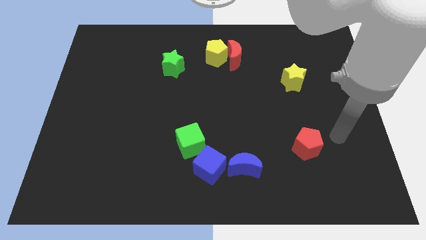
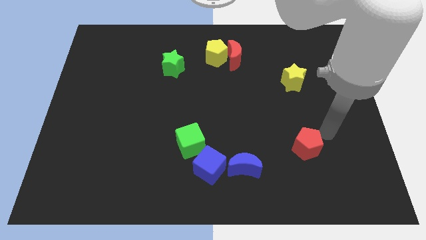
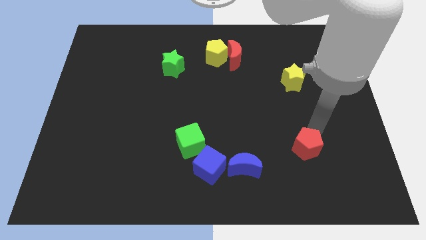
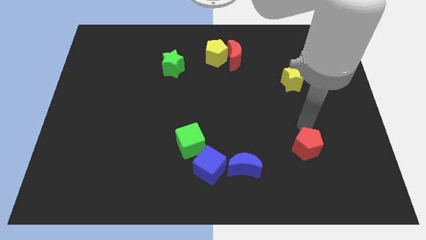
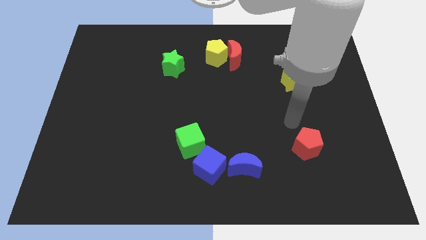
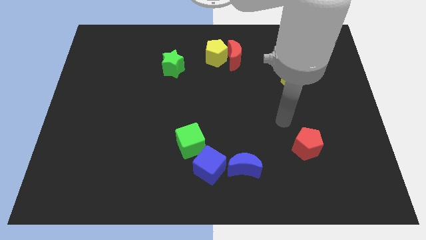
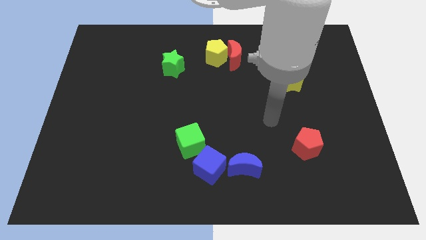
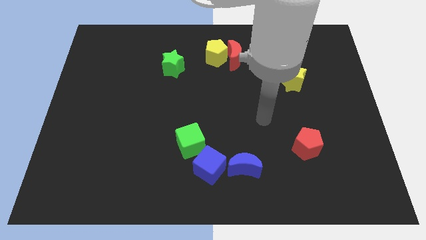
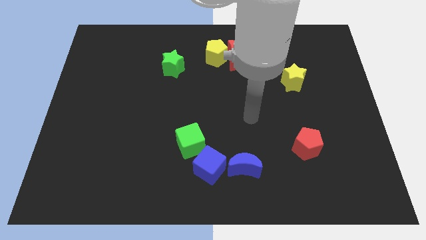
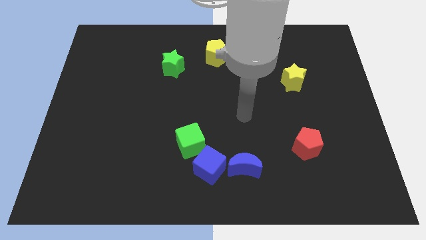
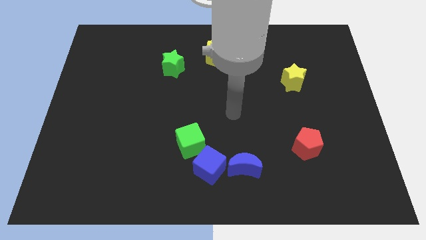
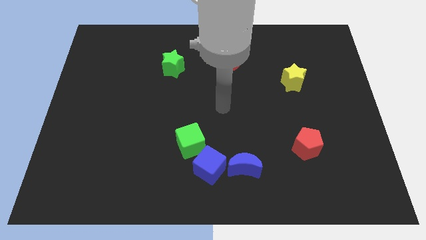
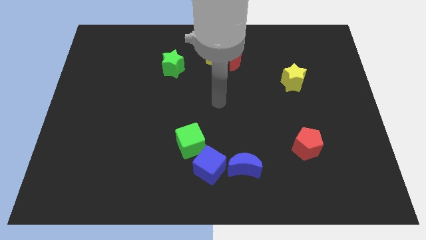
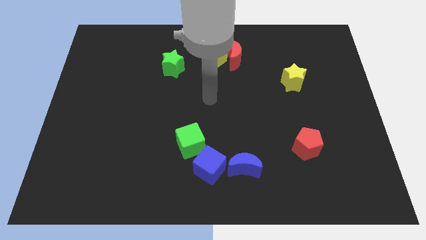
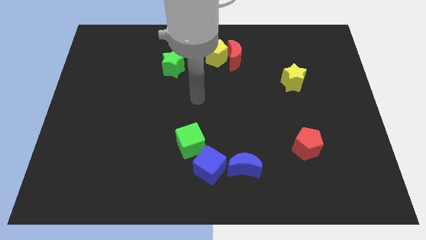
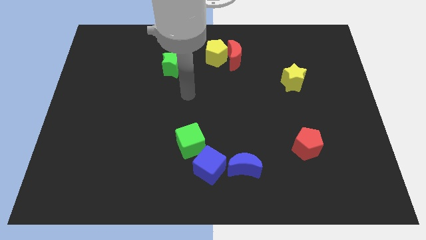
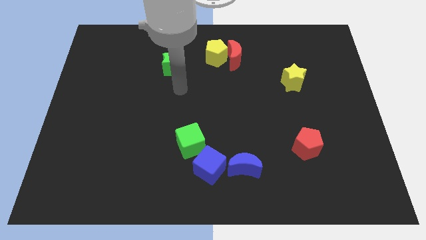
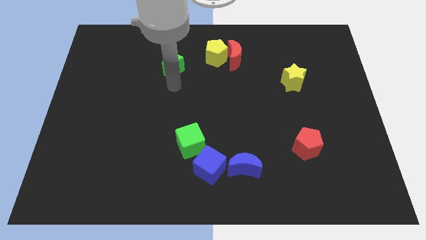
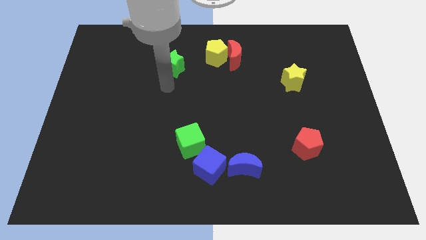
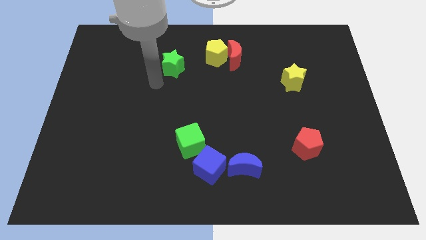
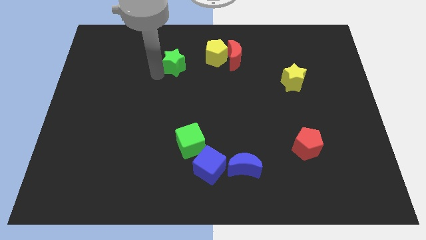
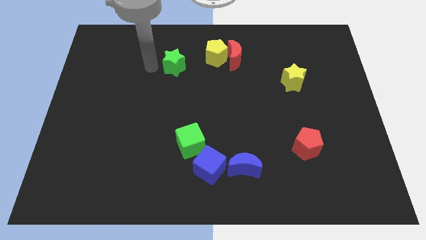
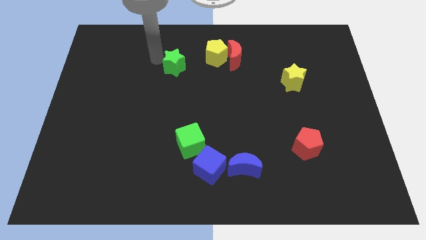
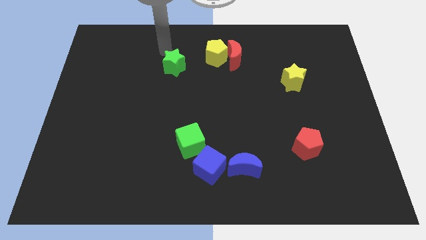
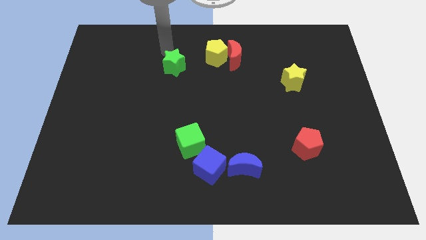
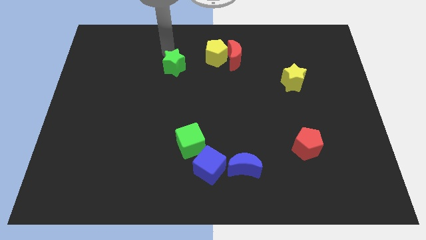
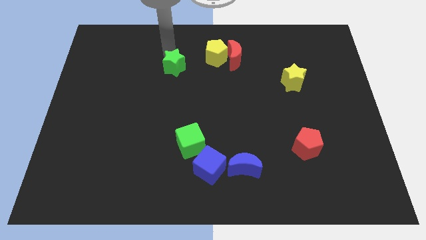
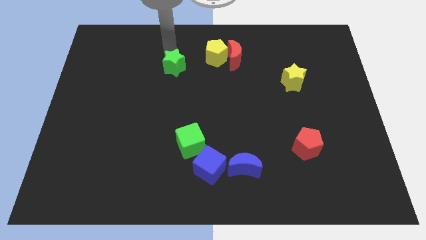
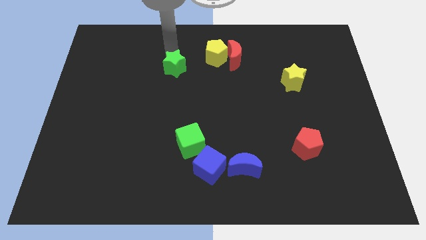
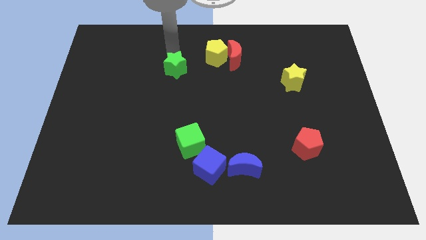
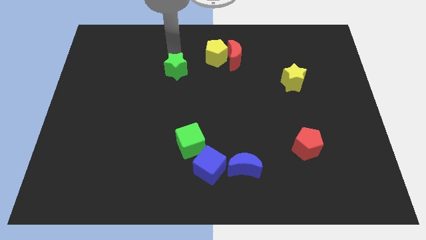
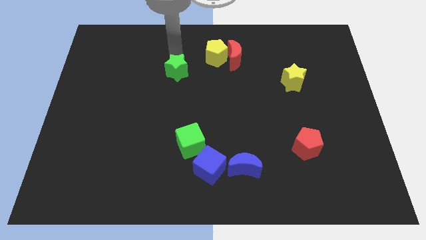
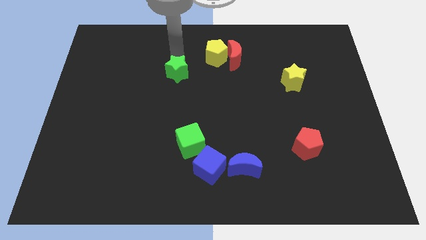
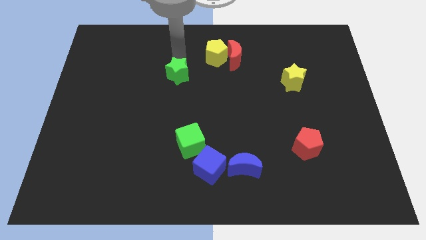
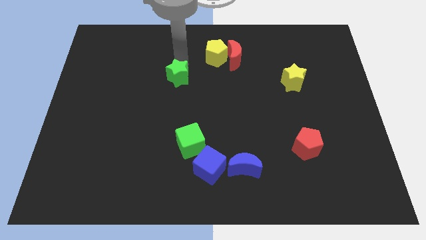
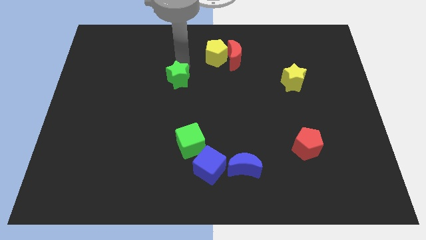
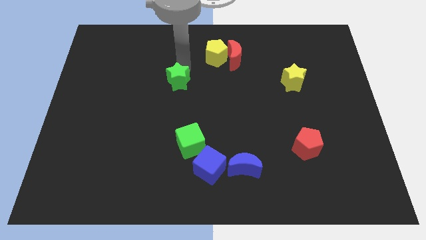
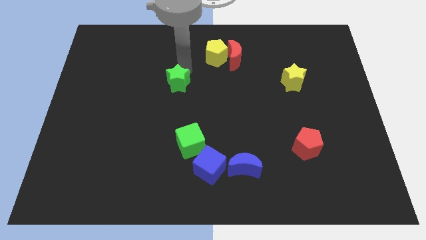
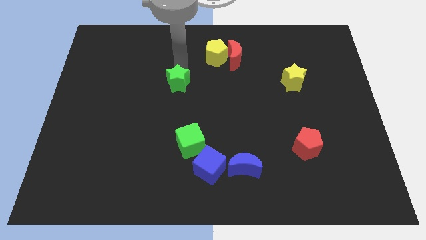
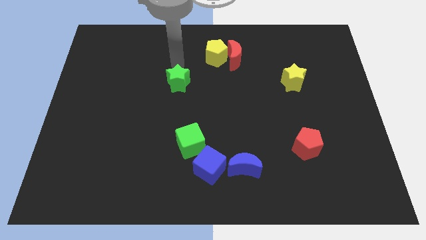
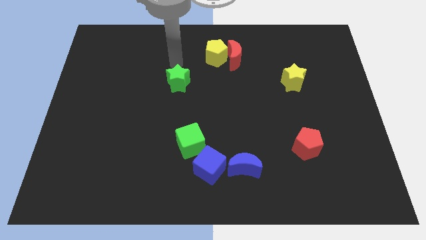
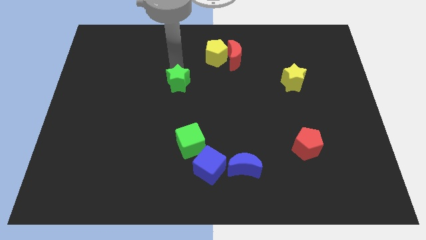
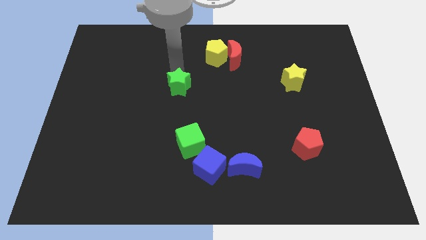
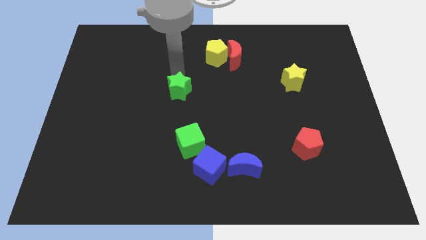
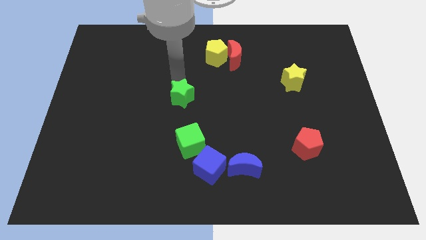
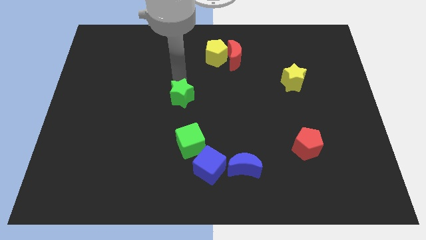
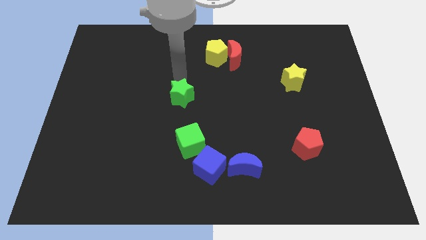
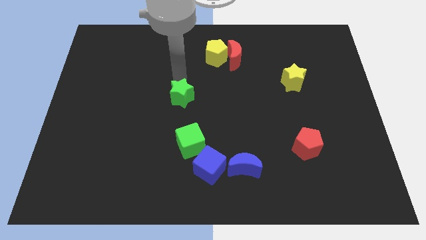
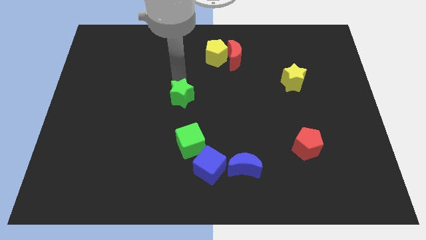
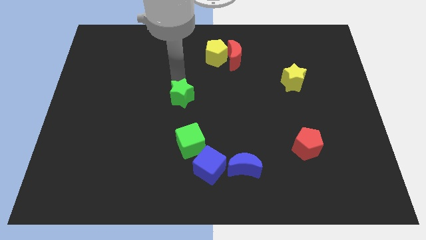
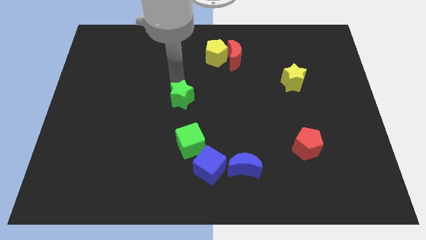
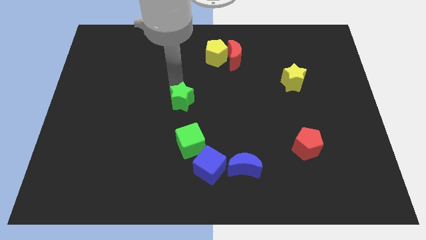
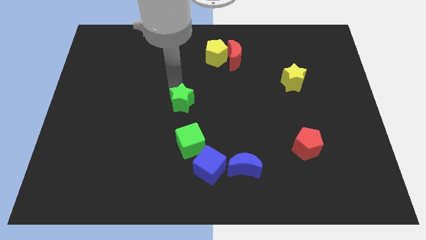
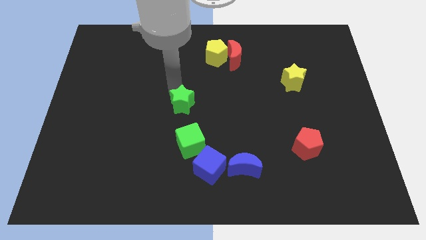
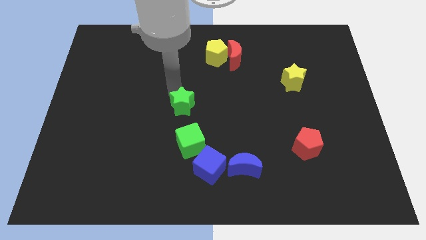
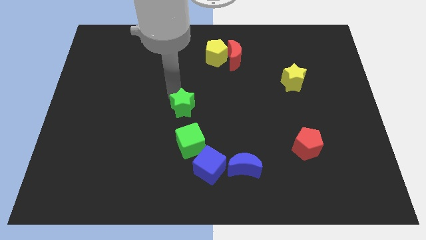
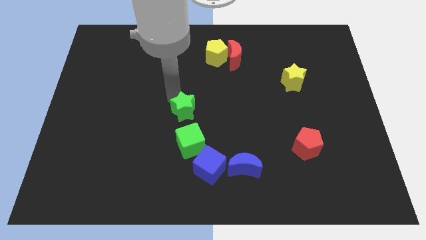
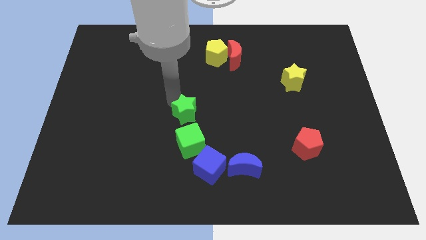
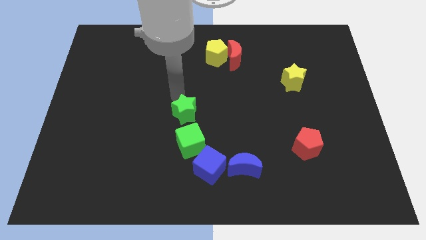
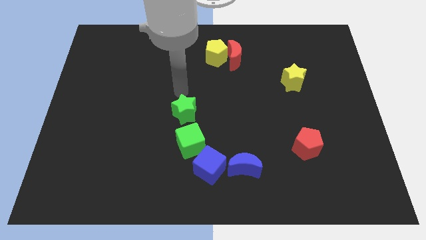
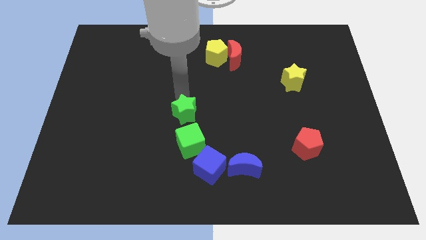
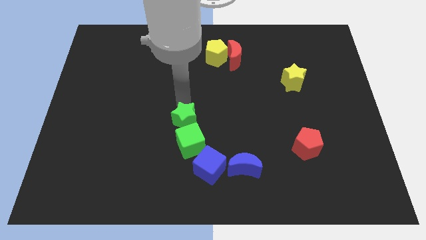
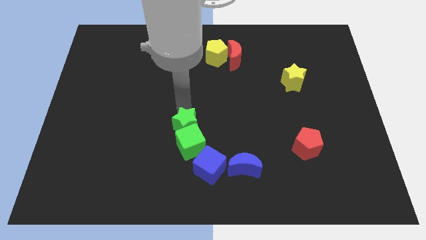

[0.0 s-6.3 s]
push the green star to the green cube

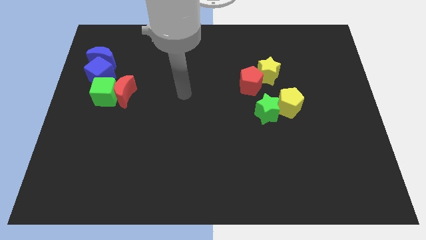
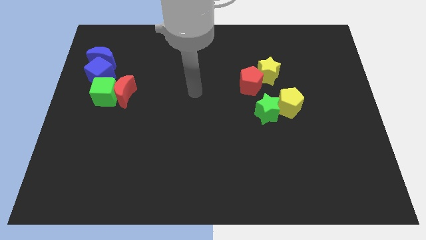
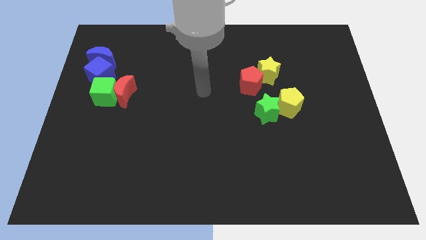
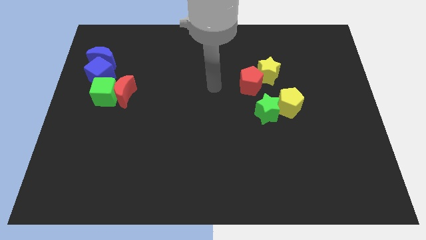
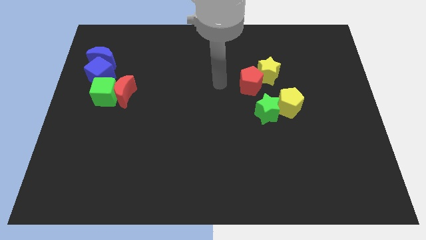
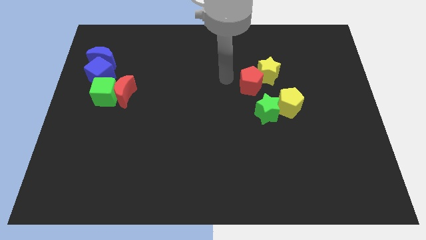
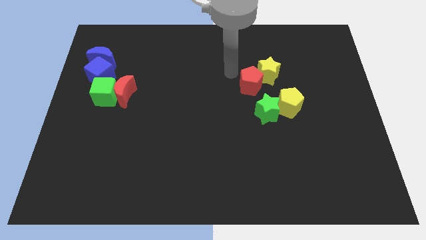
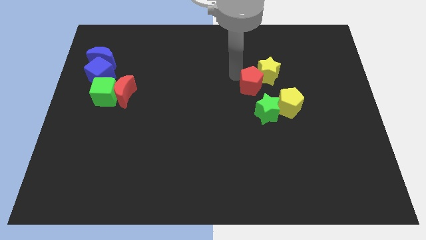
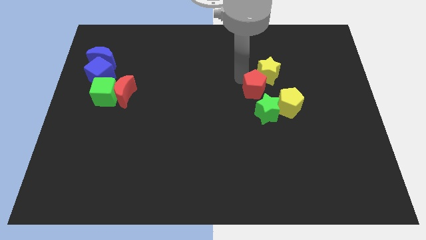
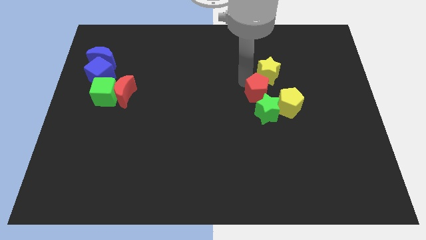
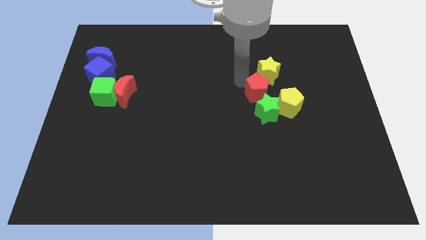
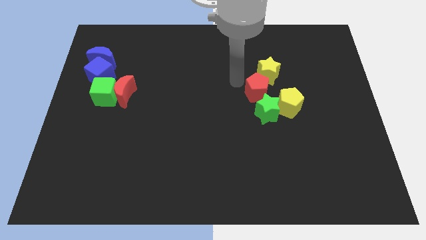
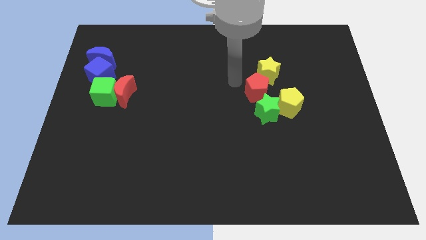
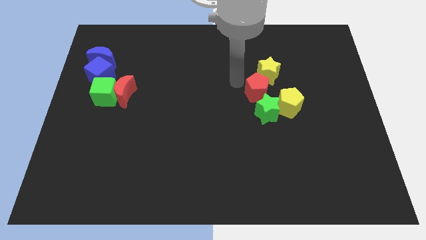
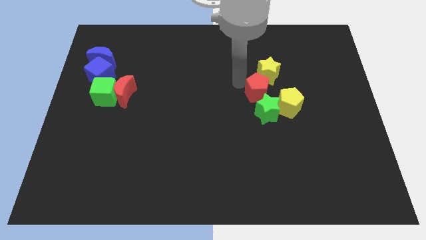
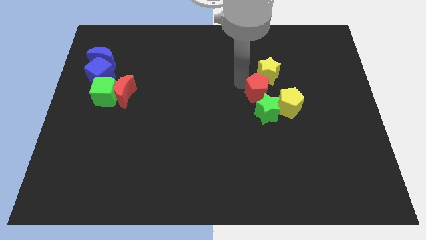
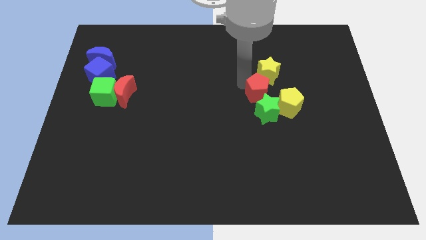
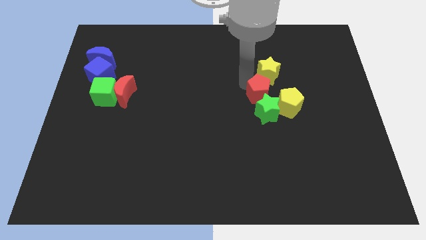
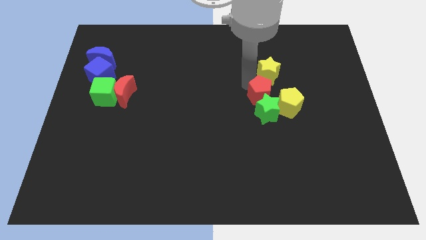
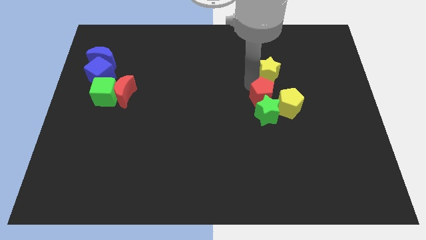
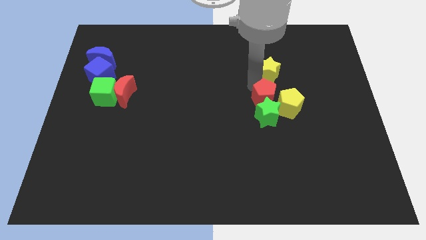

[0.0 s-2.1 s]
move the red pentagon to the yellow pentagon
